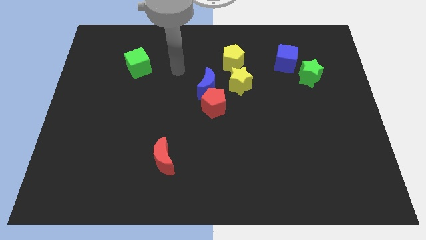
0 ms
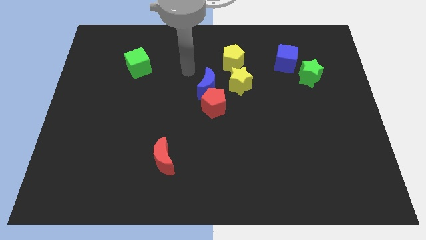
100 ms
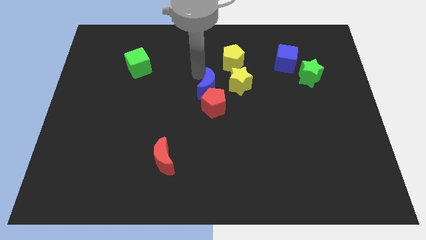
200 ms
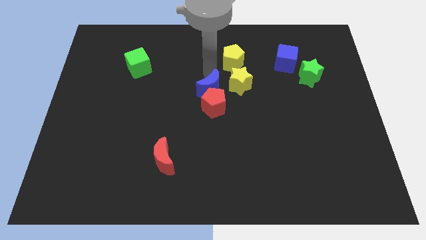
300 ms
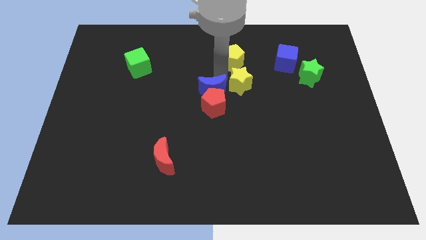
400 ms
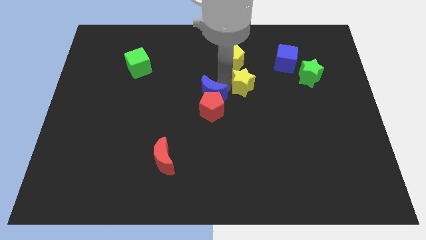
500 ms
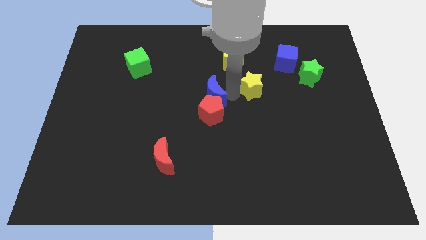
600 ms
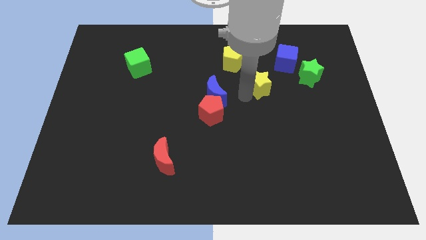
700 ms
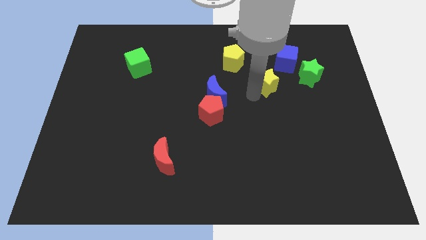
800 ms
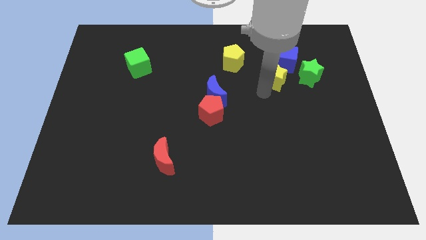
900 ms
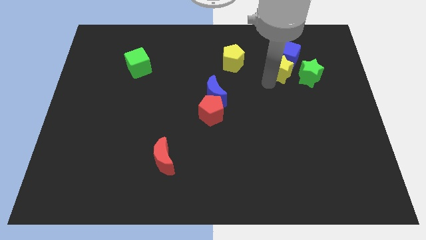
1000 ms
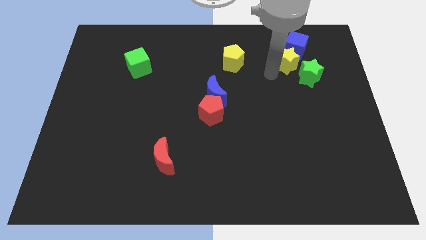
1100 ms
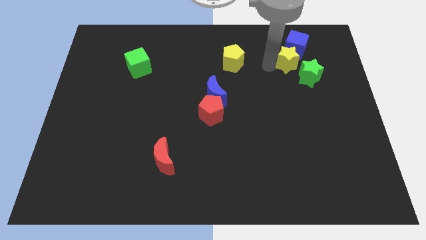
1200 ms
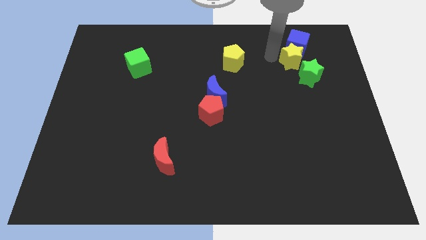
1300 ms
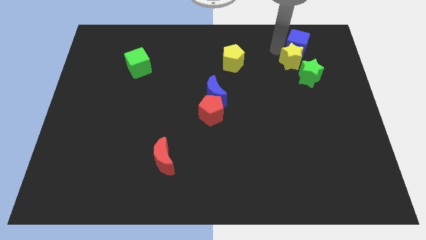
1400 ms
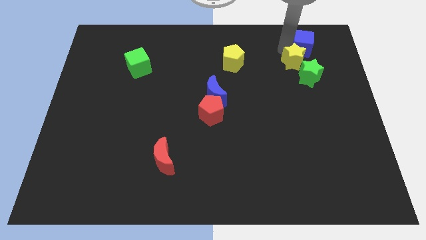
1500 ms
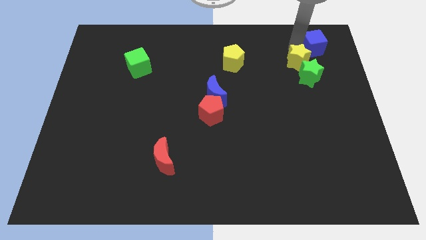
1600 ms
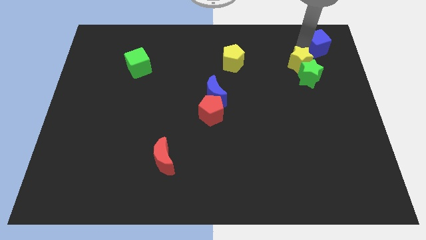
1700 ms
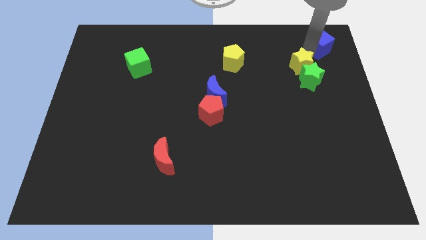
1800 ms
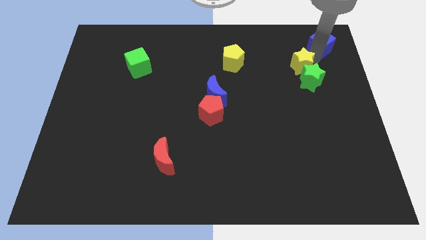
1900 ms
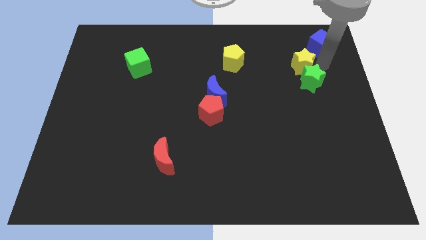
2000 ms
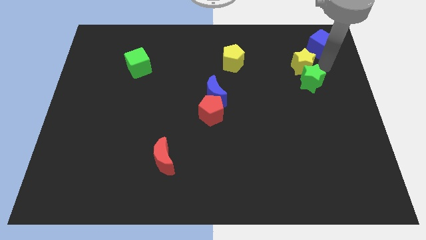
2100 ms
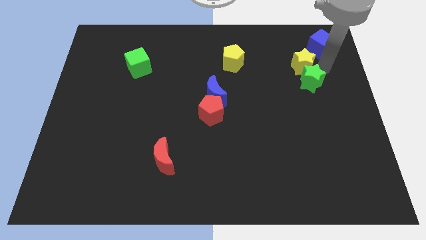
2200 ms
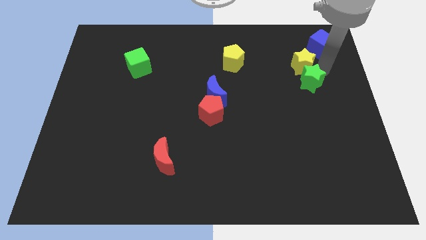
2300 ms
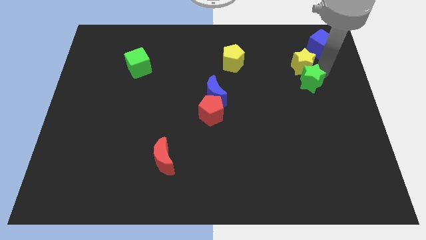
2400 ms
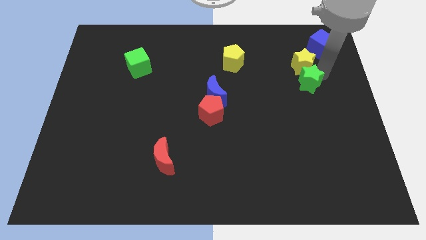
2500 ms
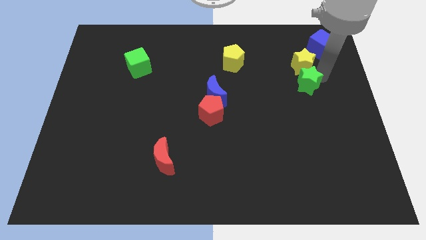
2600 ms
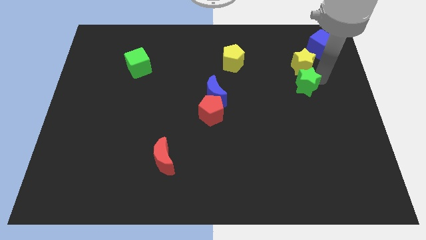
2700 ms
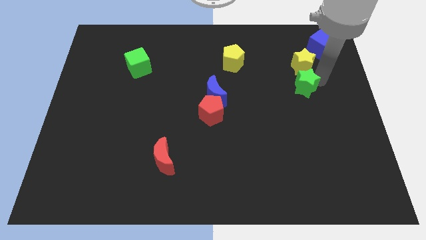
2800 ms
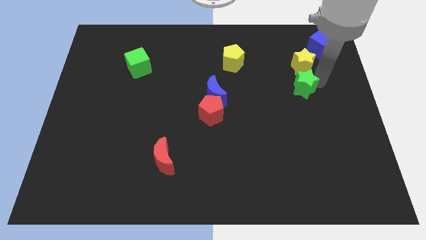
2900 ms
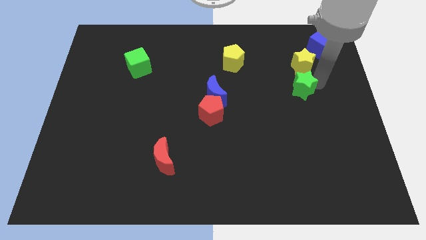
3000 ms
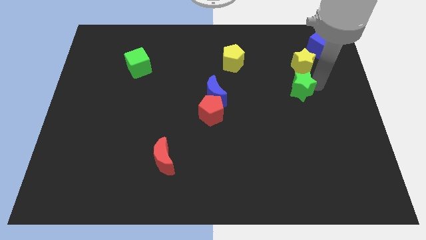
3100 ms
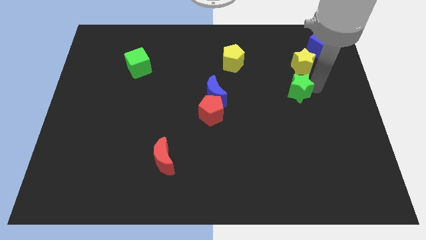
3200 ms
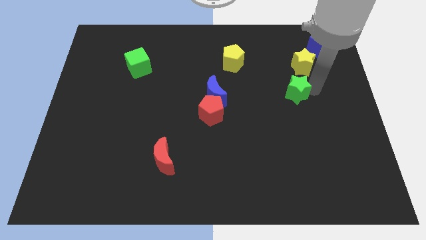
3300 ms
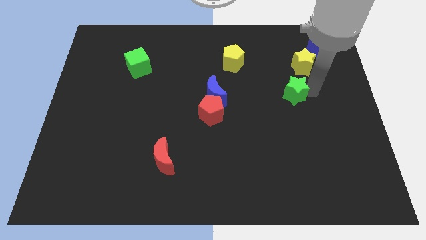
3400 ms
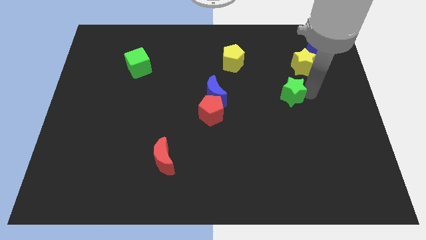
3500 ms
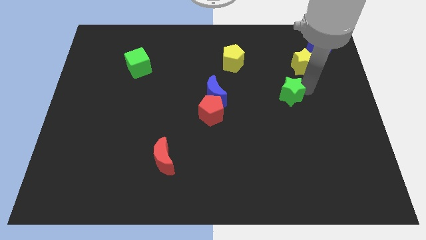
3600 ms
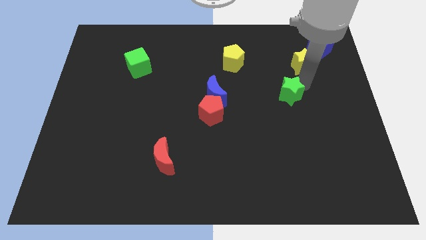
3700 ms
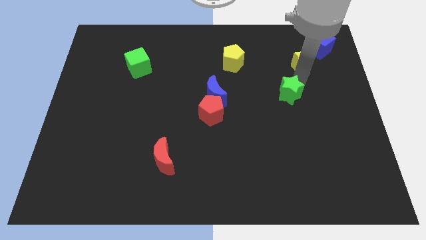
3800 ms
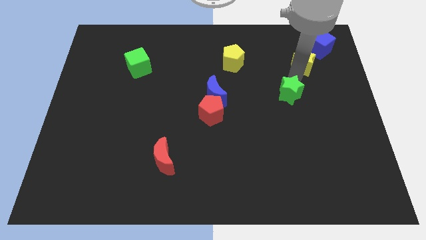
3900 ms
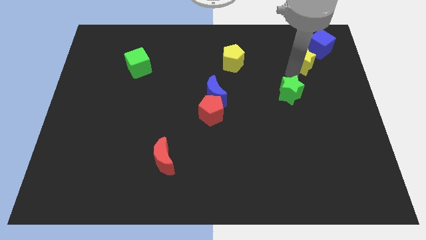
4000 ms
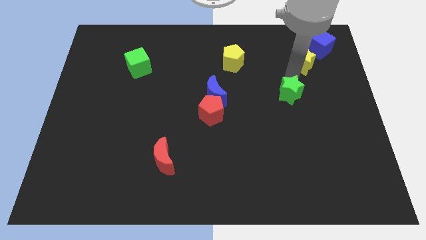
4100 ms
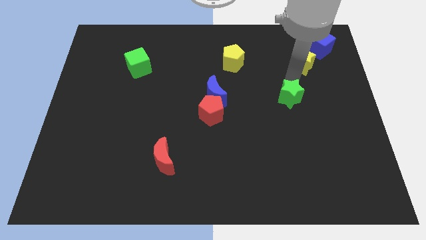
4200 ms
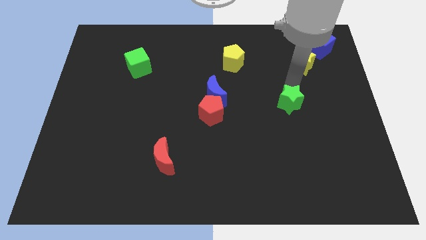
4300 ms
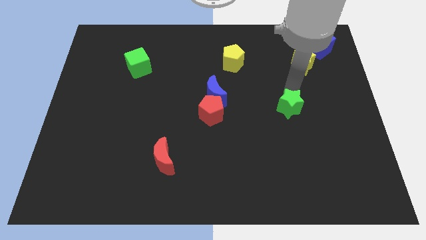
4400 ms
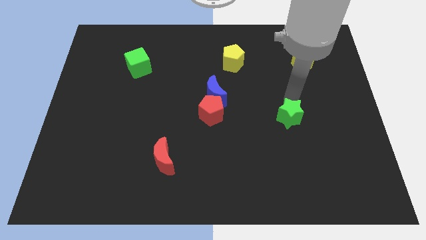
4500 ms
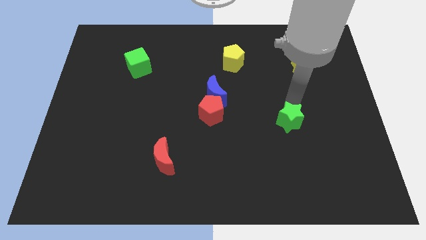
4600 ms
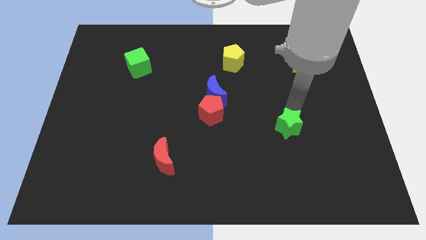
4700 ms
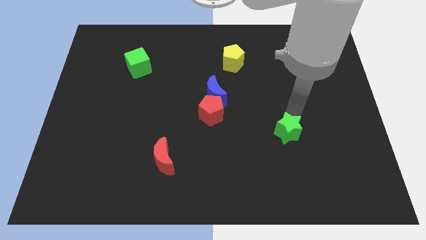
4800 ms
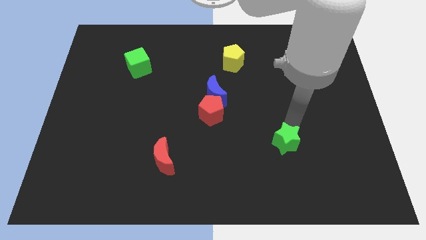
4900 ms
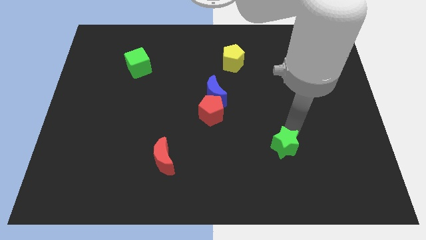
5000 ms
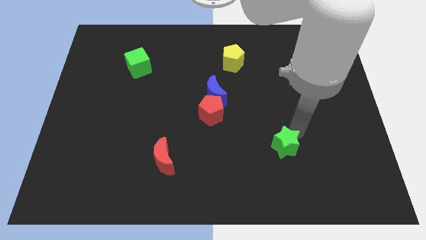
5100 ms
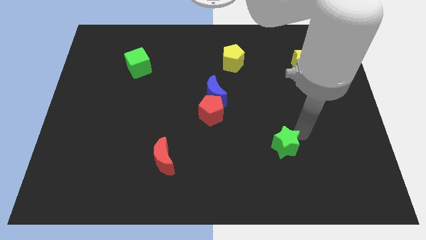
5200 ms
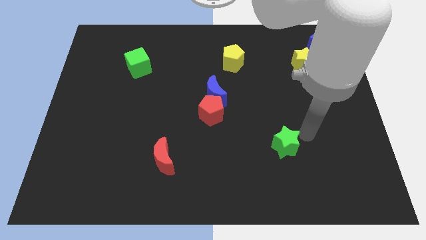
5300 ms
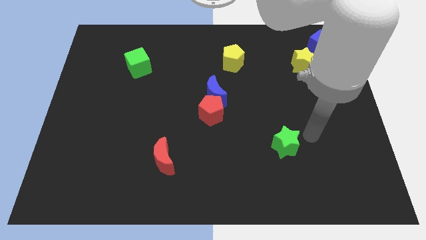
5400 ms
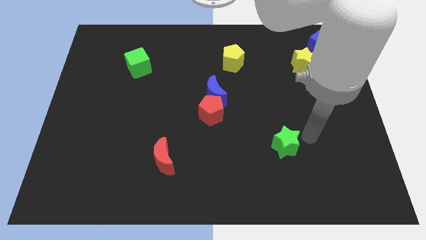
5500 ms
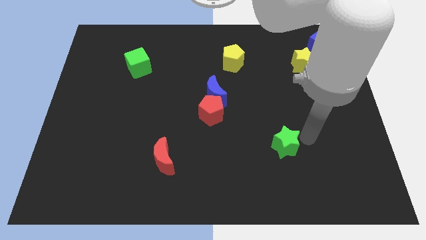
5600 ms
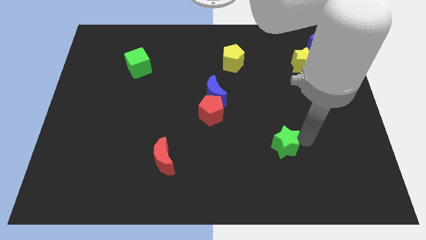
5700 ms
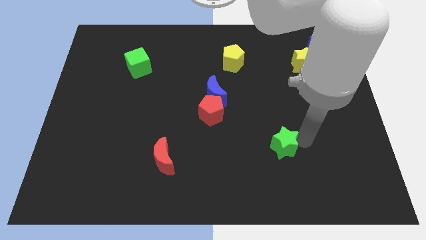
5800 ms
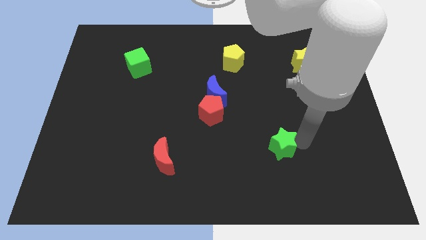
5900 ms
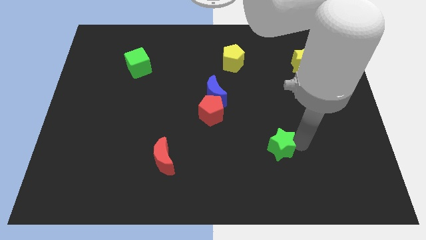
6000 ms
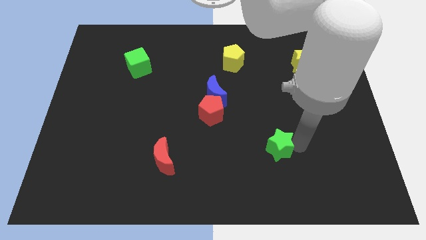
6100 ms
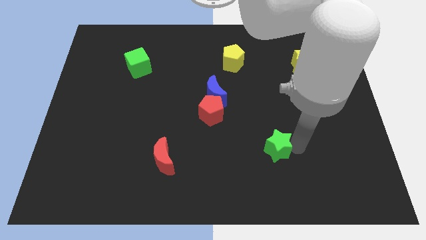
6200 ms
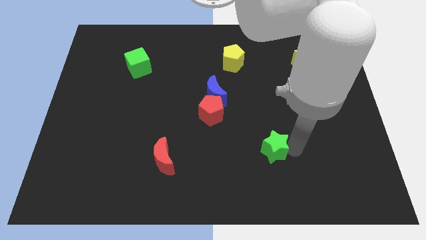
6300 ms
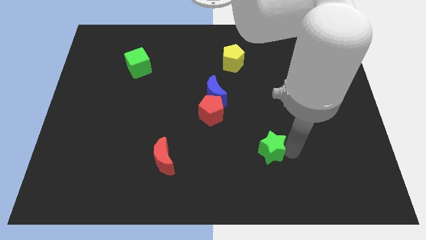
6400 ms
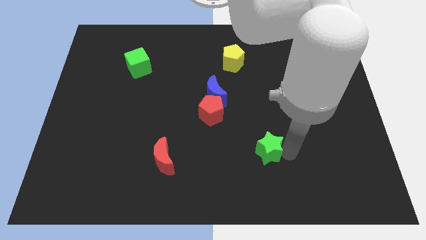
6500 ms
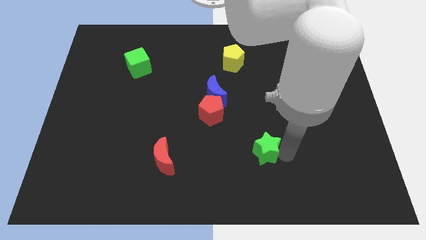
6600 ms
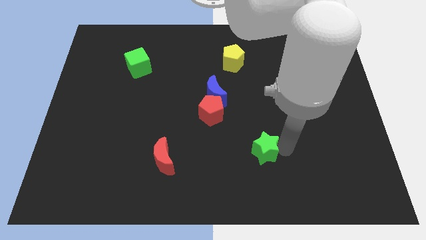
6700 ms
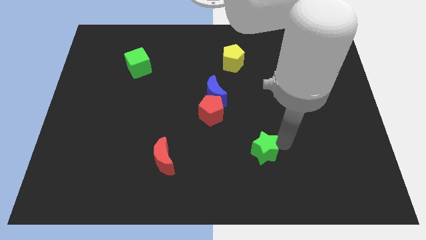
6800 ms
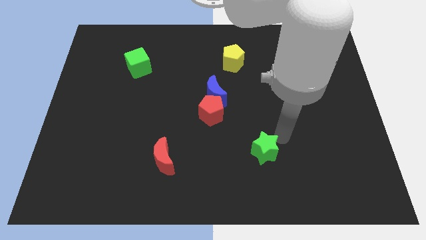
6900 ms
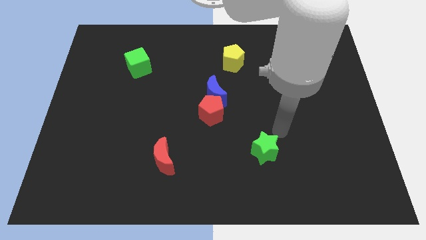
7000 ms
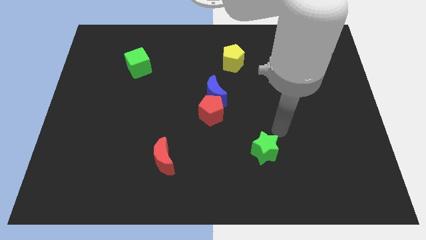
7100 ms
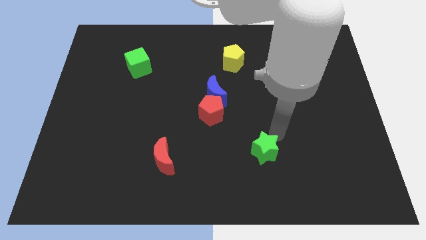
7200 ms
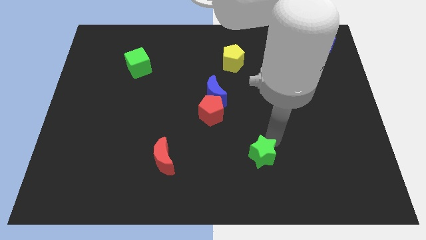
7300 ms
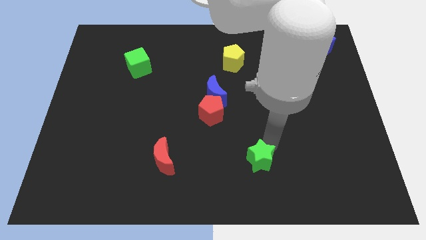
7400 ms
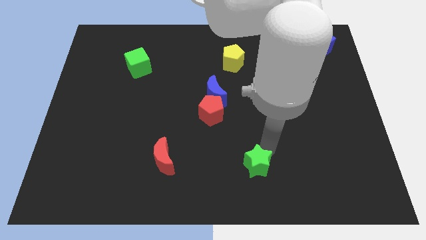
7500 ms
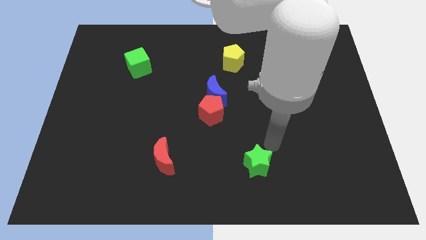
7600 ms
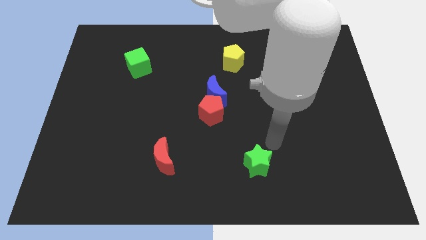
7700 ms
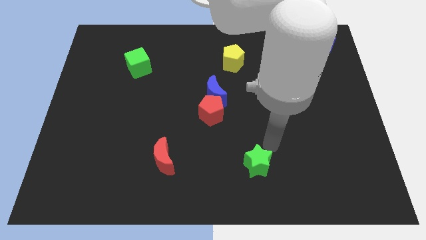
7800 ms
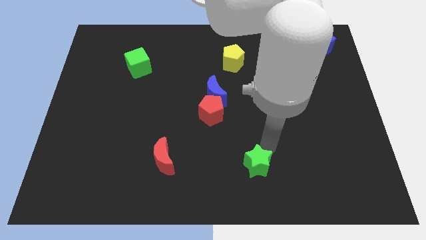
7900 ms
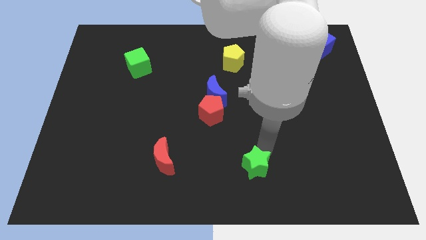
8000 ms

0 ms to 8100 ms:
slide the green star to the bottom side
